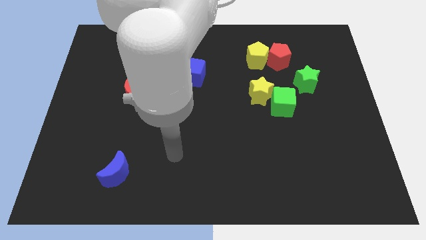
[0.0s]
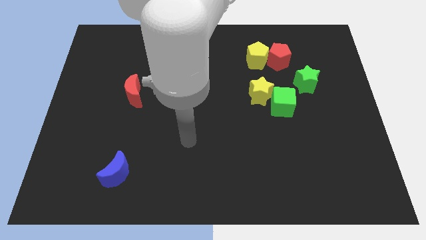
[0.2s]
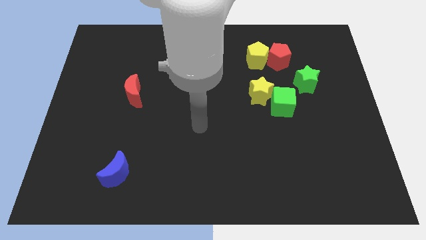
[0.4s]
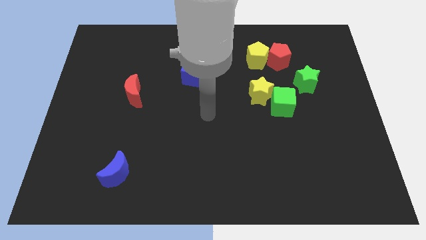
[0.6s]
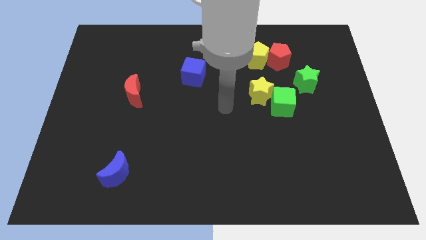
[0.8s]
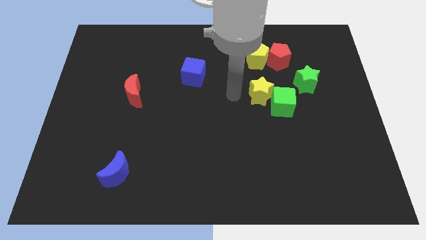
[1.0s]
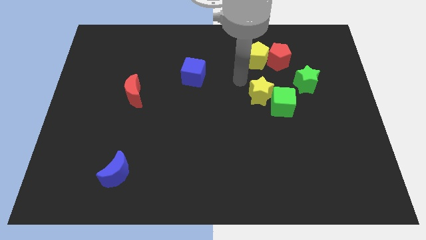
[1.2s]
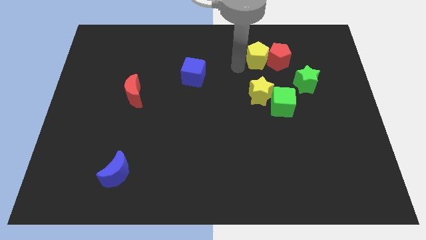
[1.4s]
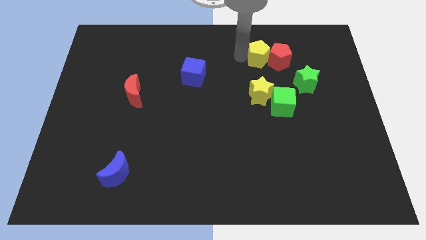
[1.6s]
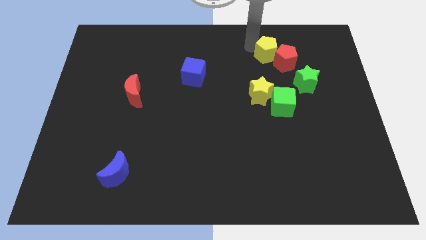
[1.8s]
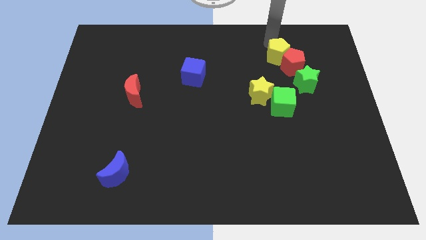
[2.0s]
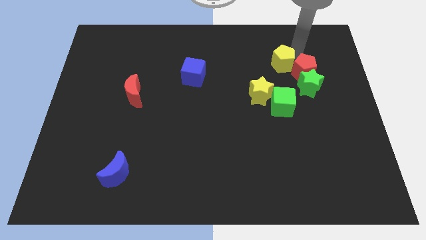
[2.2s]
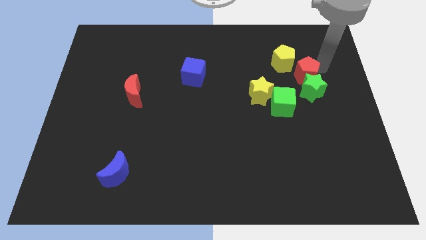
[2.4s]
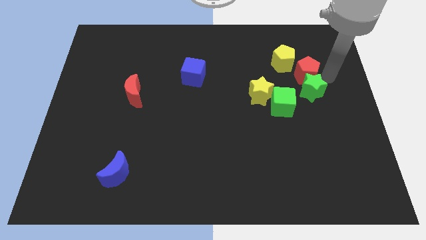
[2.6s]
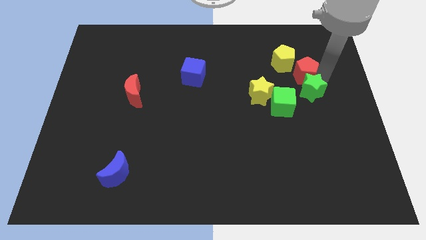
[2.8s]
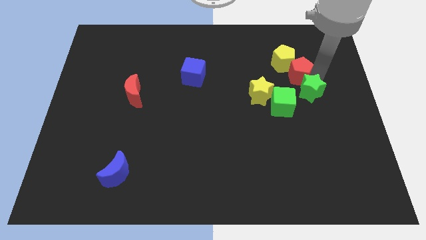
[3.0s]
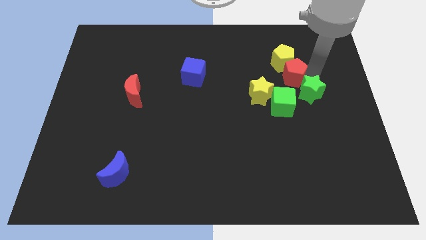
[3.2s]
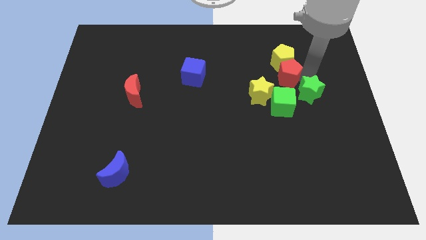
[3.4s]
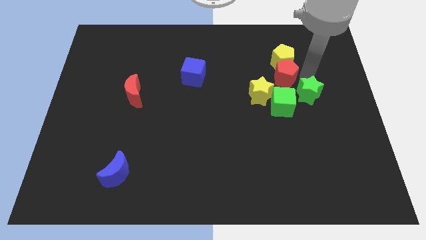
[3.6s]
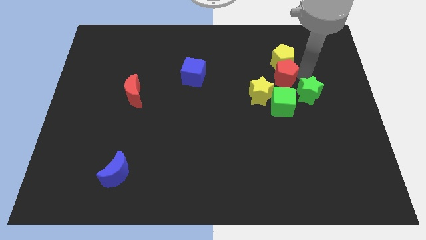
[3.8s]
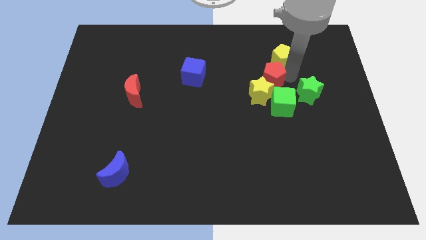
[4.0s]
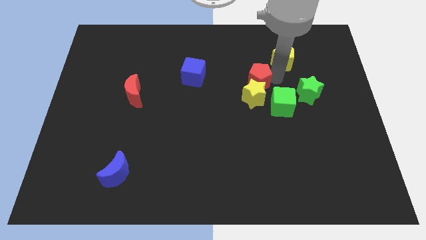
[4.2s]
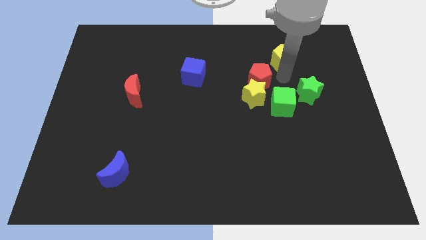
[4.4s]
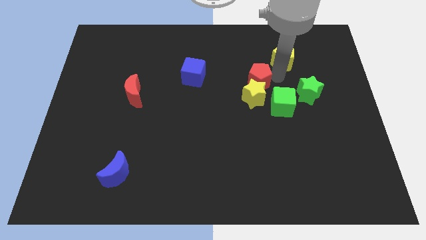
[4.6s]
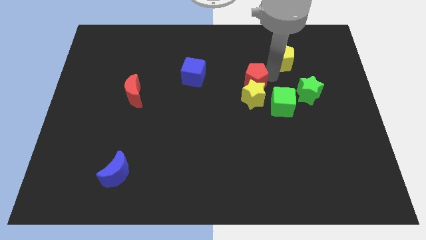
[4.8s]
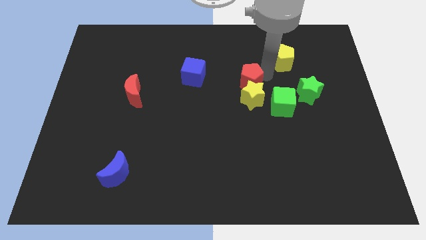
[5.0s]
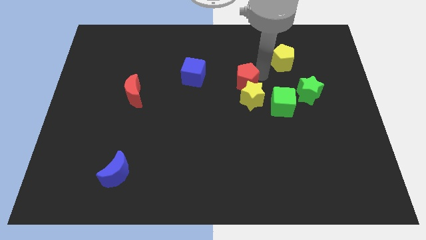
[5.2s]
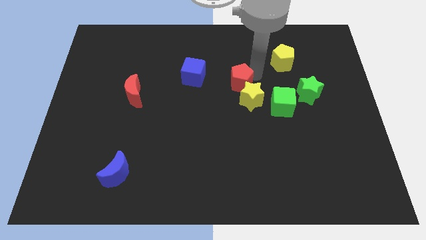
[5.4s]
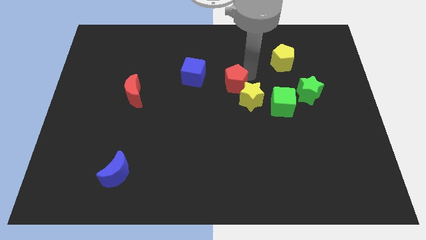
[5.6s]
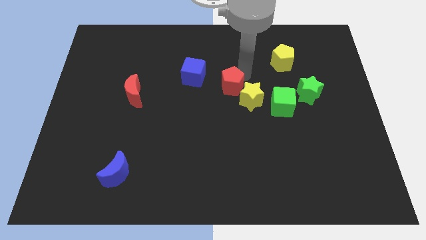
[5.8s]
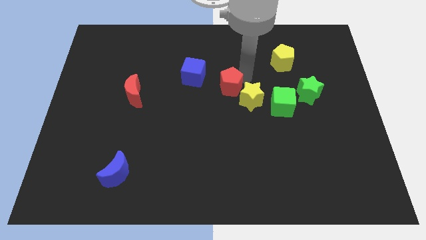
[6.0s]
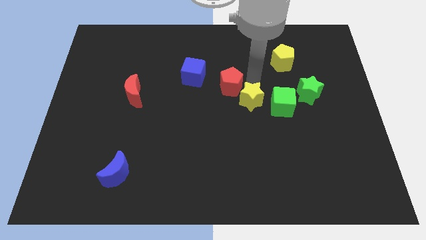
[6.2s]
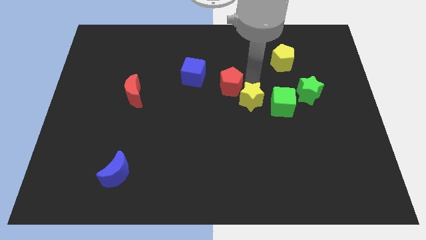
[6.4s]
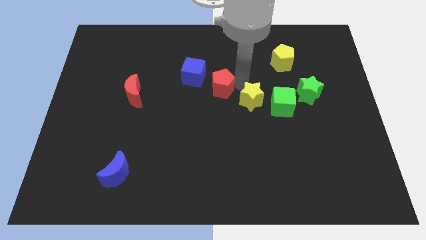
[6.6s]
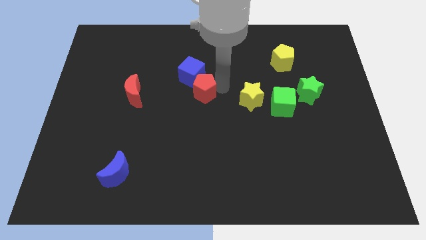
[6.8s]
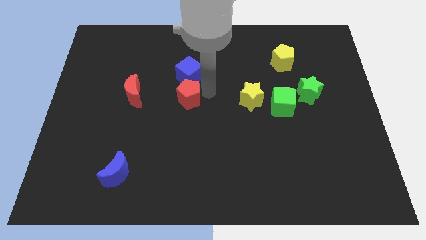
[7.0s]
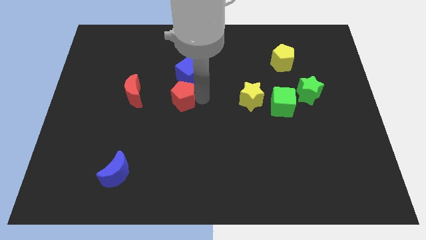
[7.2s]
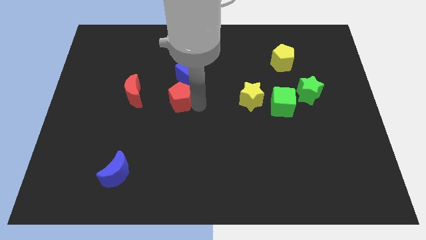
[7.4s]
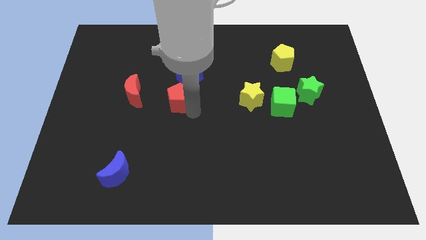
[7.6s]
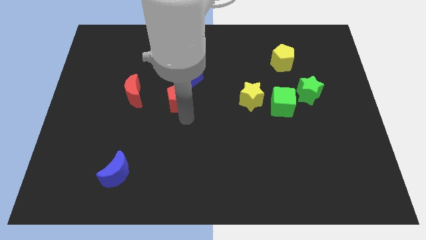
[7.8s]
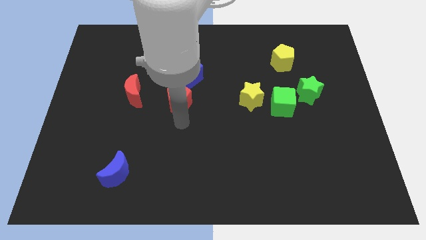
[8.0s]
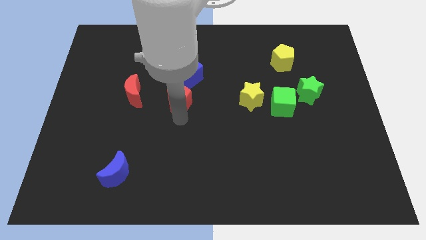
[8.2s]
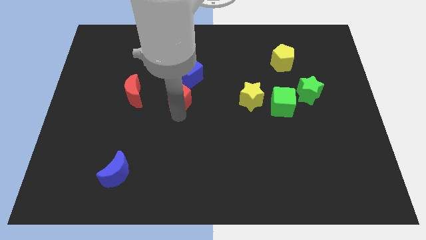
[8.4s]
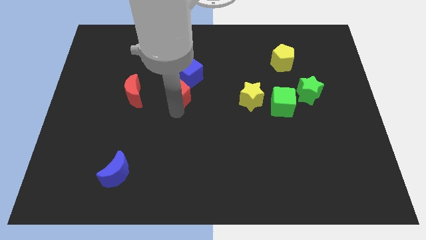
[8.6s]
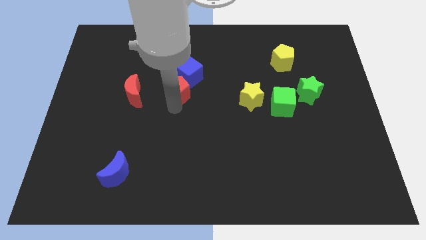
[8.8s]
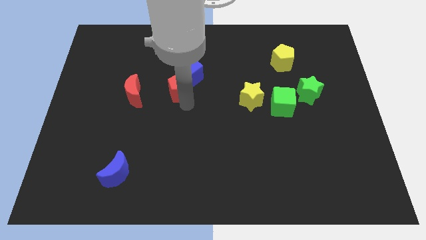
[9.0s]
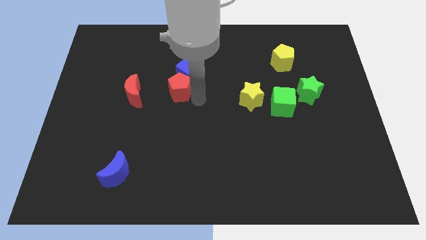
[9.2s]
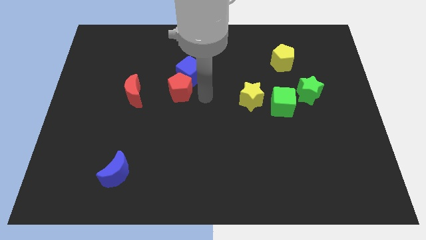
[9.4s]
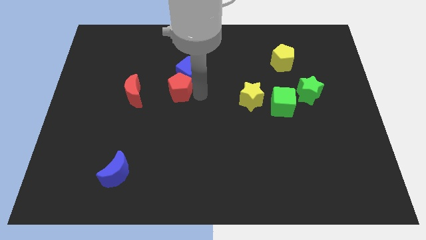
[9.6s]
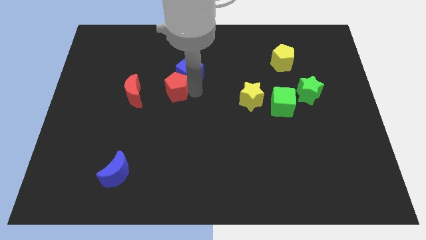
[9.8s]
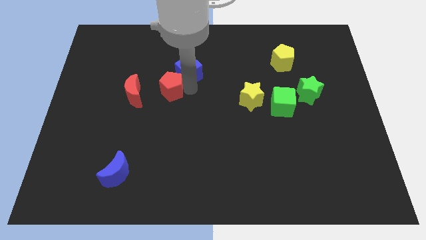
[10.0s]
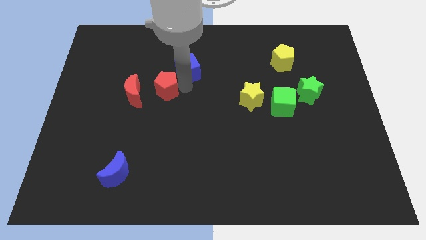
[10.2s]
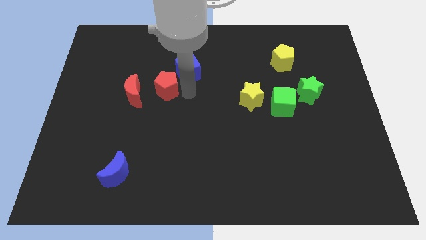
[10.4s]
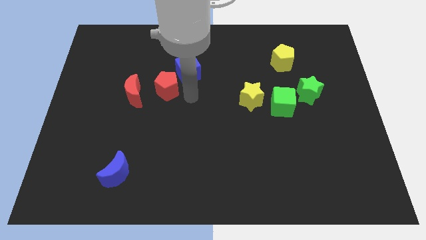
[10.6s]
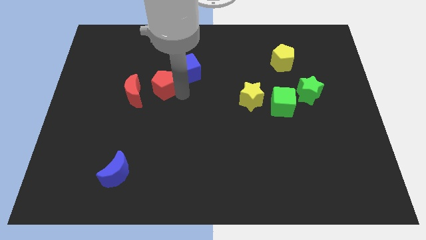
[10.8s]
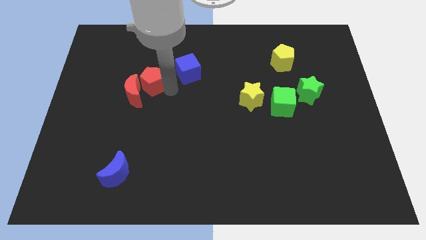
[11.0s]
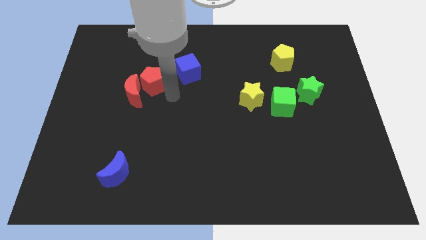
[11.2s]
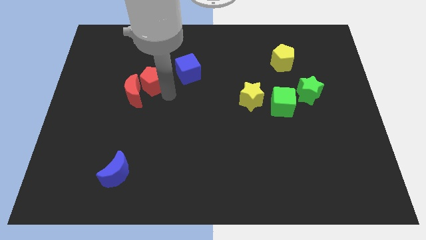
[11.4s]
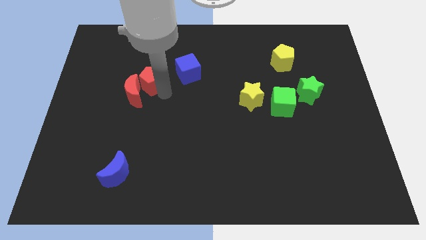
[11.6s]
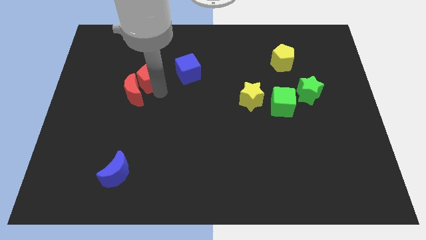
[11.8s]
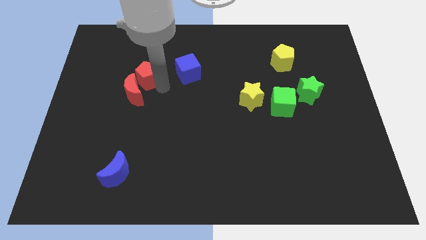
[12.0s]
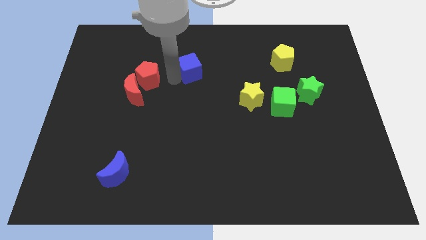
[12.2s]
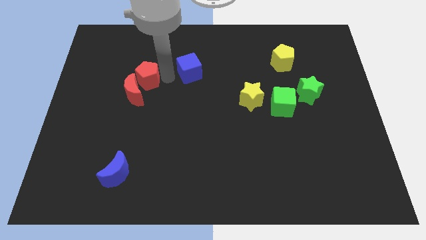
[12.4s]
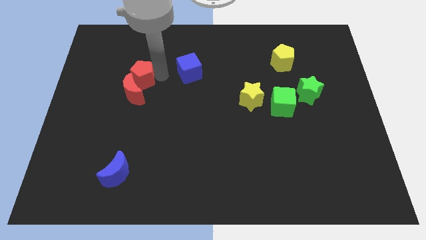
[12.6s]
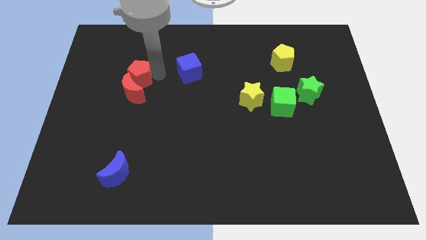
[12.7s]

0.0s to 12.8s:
slide the red pentagon to the top left of the red moon

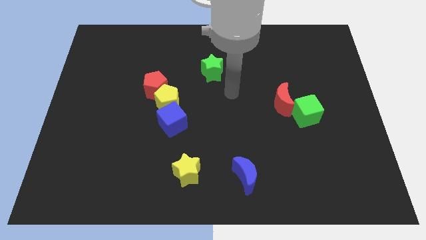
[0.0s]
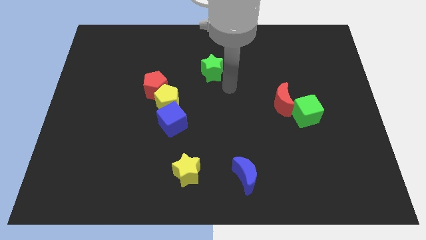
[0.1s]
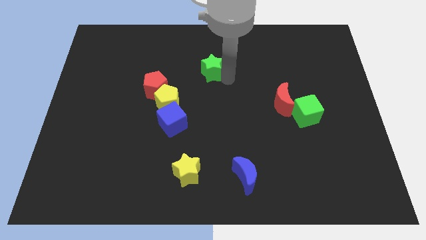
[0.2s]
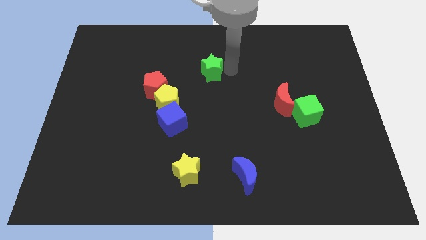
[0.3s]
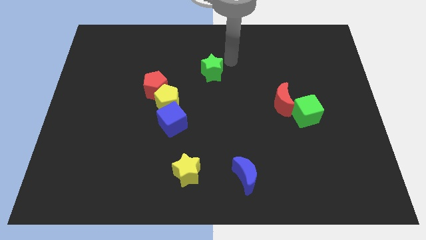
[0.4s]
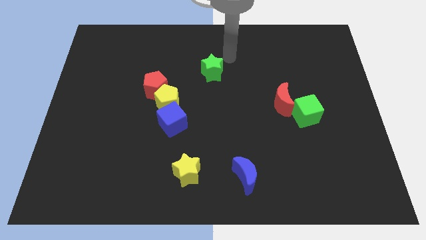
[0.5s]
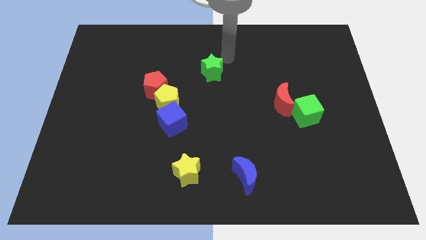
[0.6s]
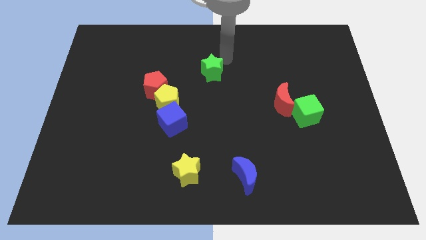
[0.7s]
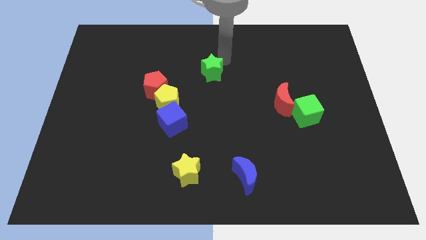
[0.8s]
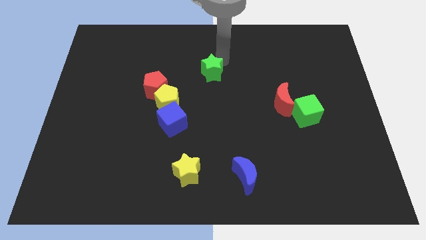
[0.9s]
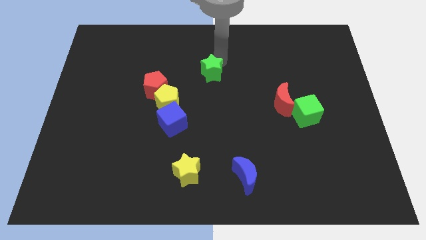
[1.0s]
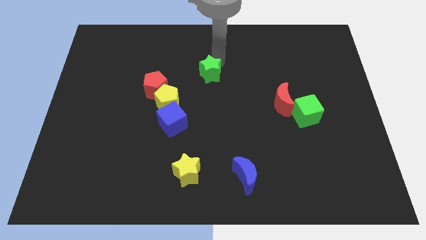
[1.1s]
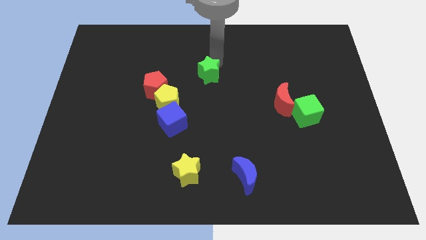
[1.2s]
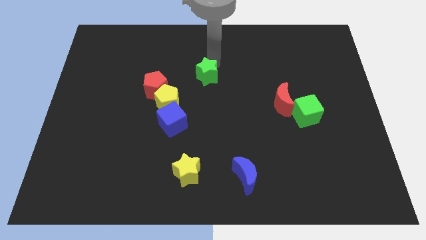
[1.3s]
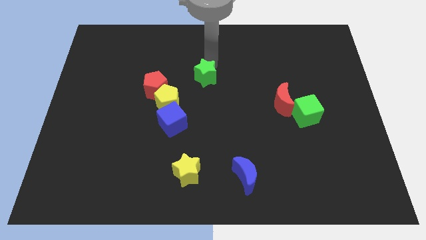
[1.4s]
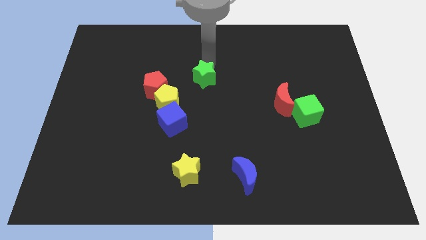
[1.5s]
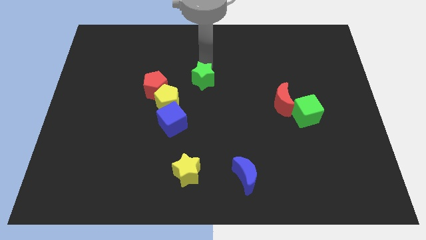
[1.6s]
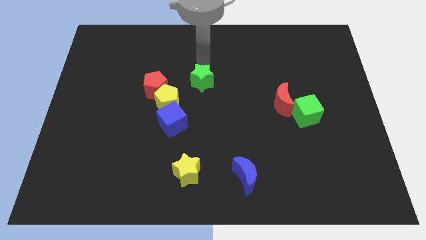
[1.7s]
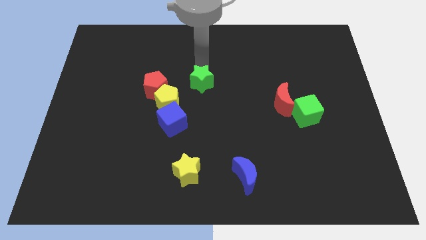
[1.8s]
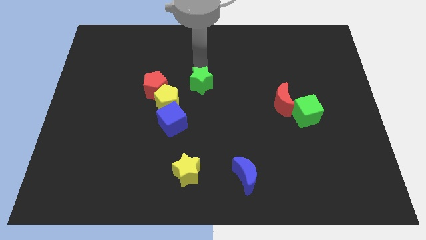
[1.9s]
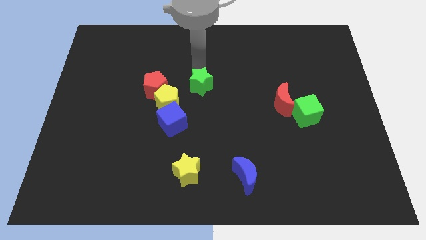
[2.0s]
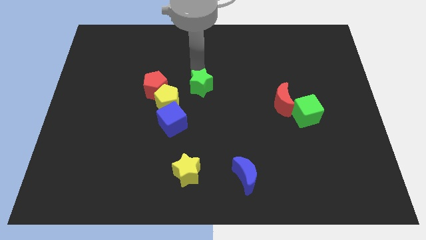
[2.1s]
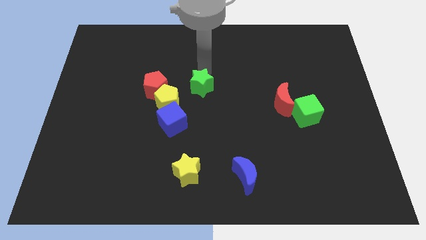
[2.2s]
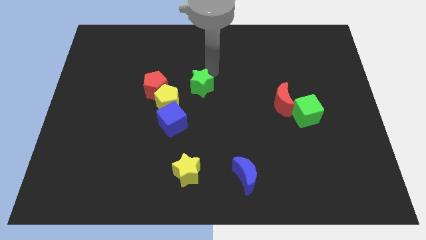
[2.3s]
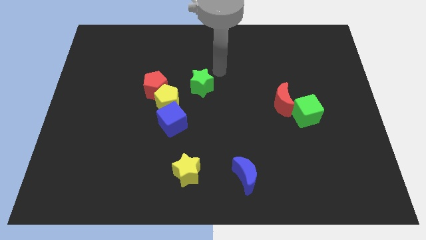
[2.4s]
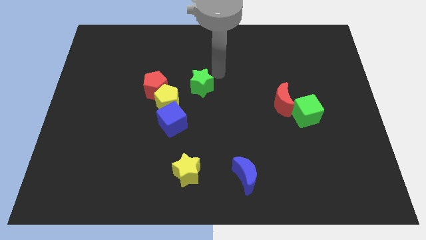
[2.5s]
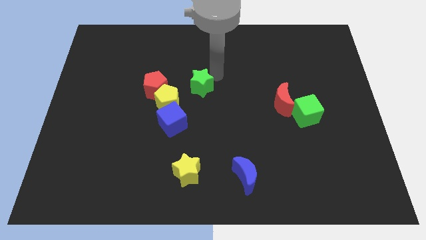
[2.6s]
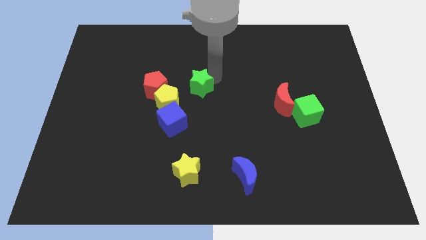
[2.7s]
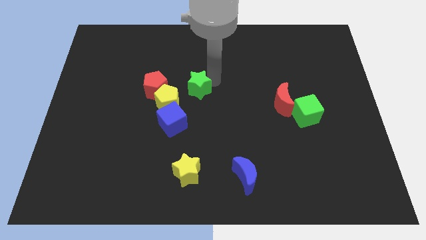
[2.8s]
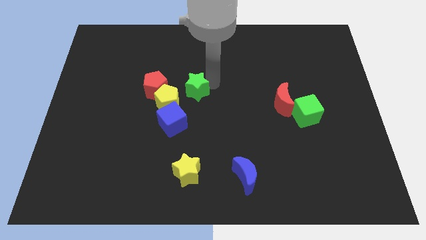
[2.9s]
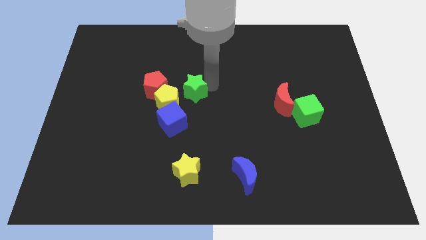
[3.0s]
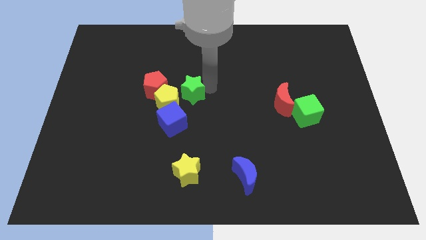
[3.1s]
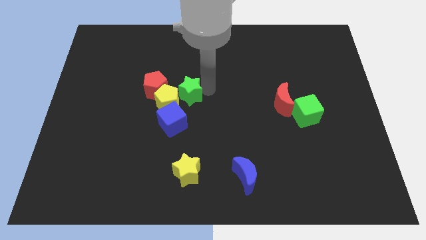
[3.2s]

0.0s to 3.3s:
put the green star to the bottom right side of the red pentagon
